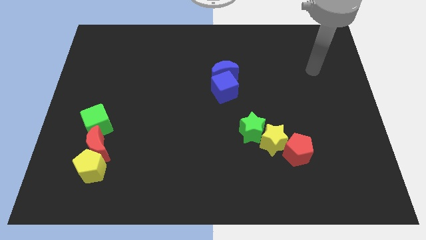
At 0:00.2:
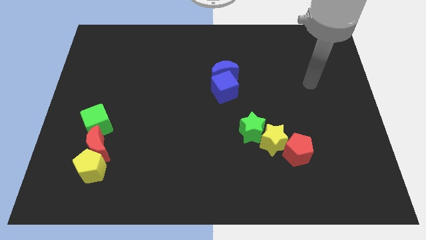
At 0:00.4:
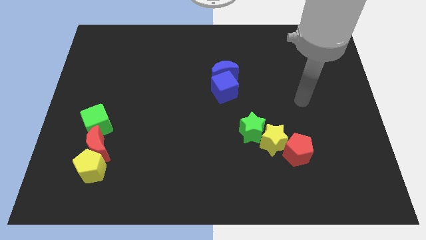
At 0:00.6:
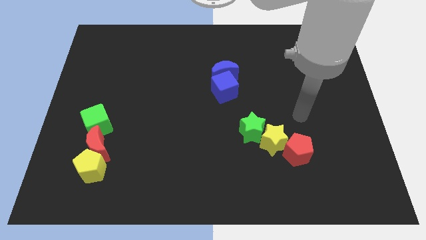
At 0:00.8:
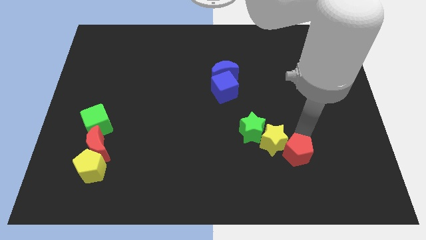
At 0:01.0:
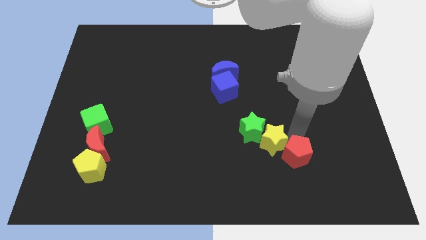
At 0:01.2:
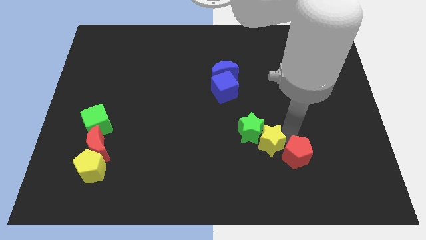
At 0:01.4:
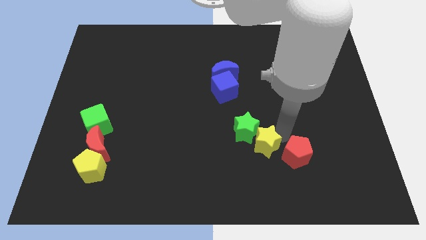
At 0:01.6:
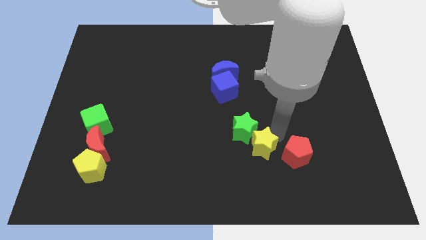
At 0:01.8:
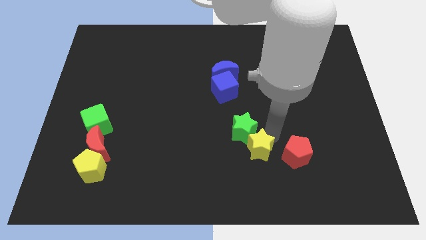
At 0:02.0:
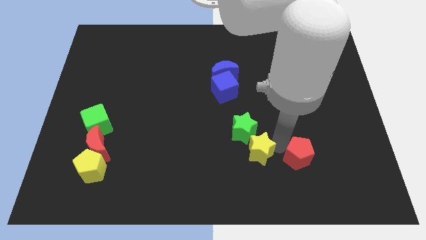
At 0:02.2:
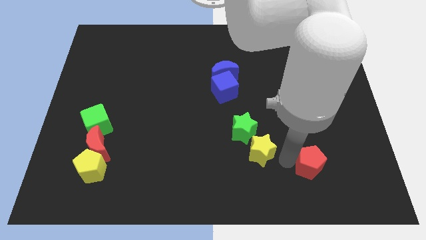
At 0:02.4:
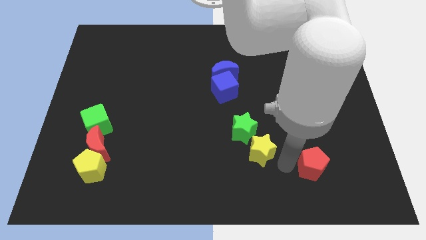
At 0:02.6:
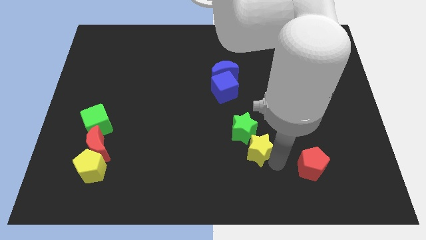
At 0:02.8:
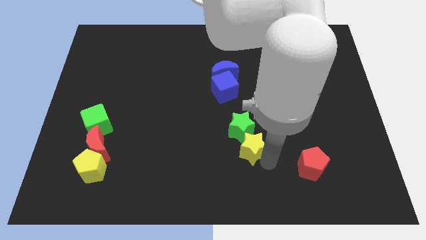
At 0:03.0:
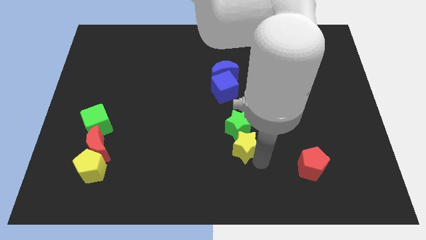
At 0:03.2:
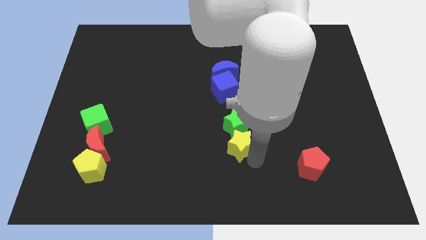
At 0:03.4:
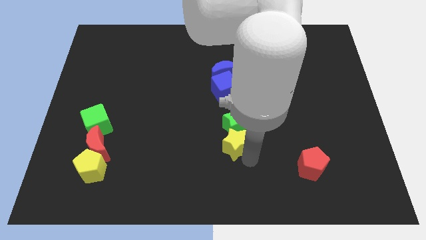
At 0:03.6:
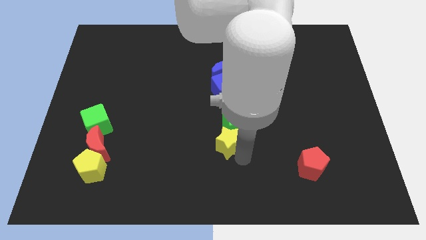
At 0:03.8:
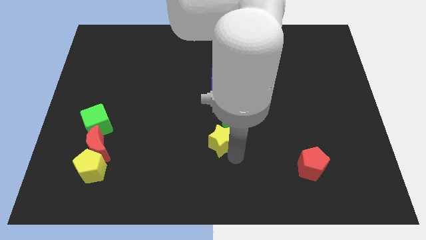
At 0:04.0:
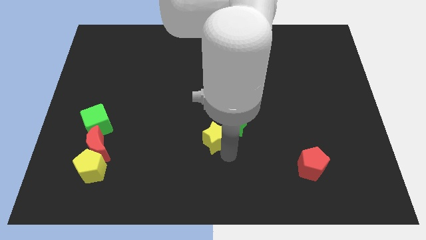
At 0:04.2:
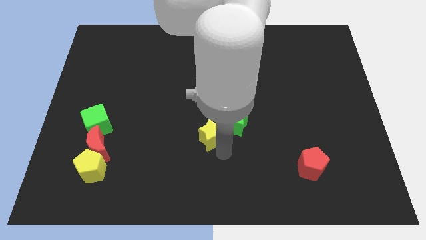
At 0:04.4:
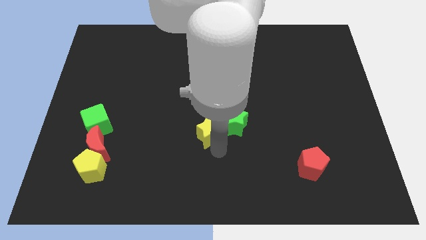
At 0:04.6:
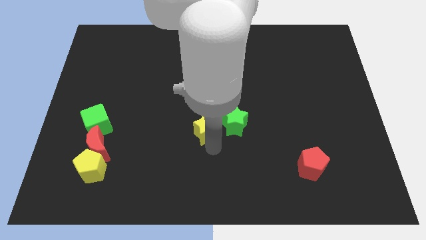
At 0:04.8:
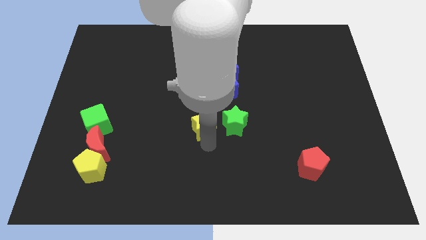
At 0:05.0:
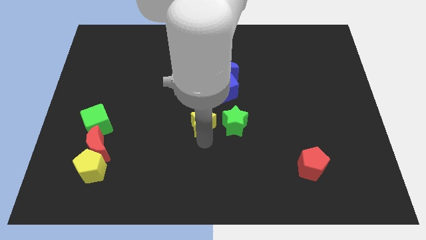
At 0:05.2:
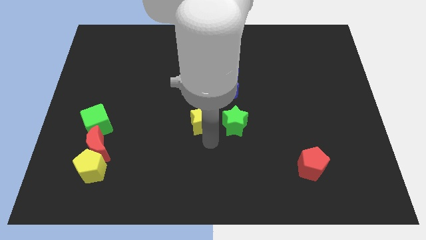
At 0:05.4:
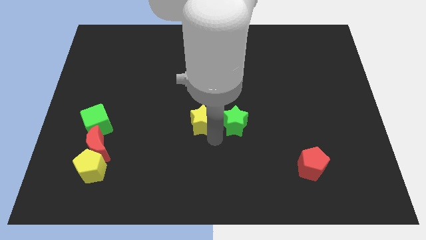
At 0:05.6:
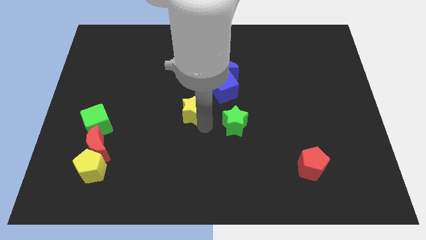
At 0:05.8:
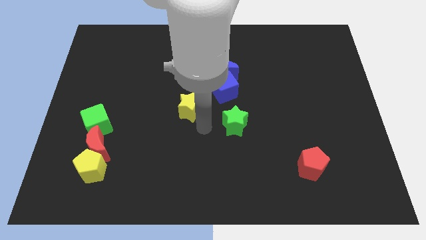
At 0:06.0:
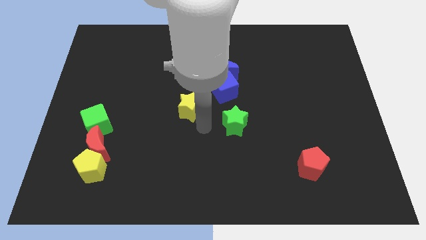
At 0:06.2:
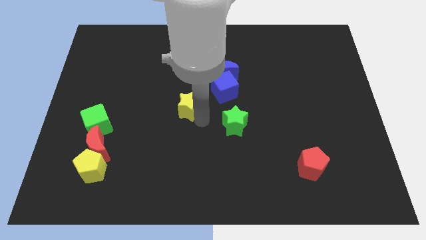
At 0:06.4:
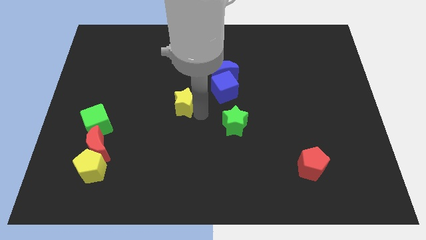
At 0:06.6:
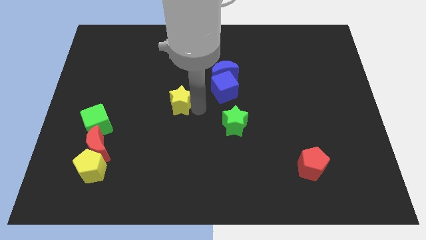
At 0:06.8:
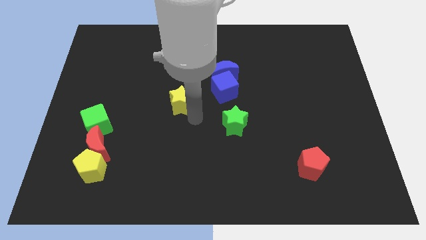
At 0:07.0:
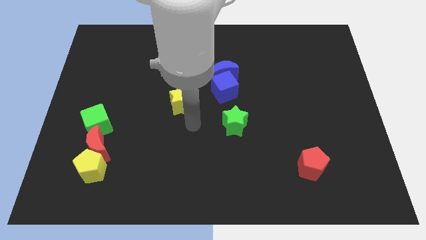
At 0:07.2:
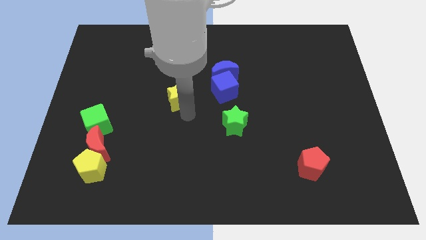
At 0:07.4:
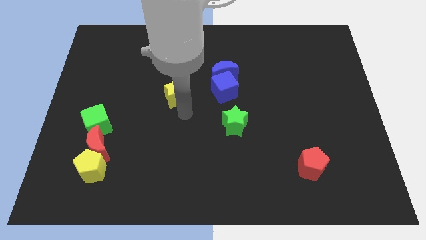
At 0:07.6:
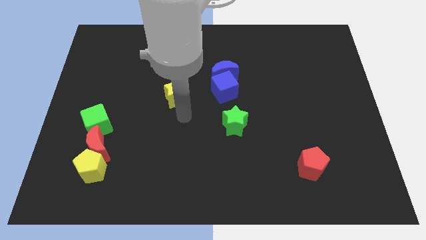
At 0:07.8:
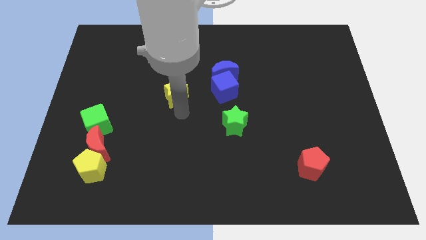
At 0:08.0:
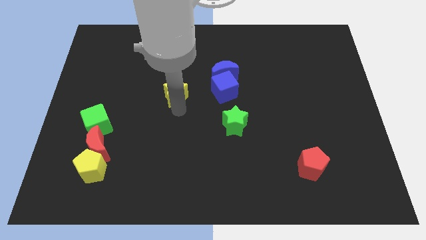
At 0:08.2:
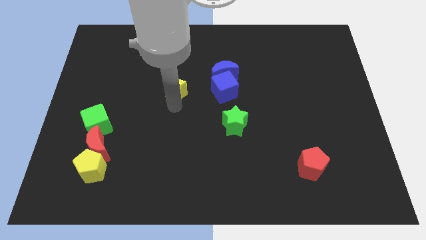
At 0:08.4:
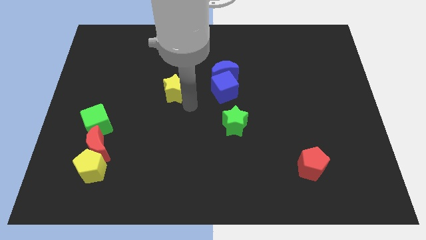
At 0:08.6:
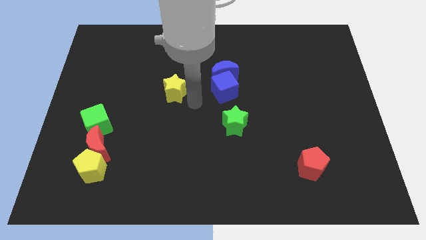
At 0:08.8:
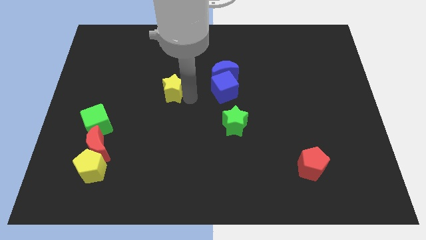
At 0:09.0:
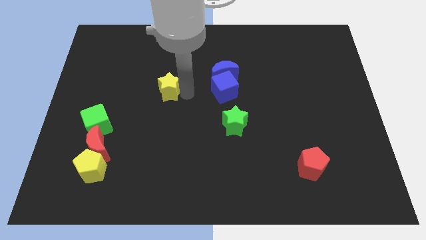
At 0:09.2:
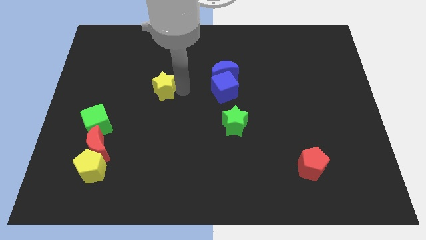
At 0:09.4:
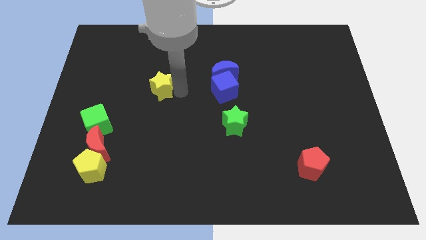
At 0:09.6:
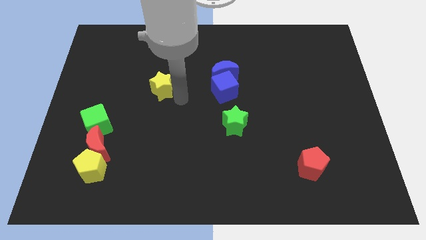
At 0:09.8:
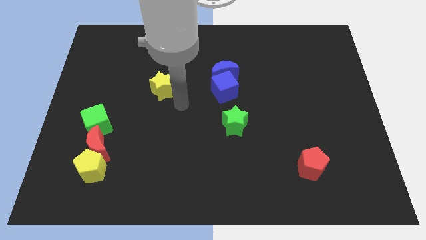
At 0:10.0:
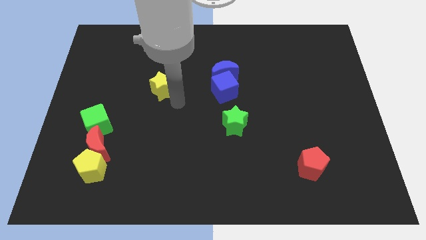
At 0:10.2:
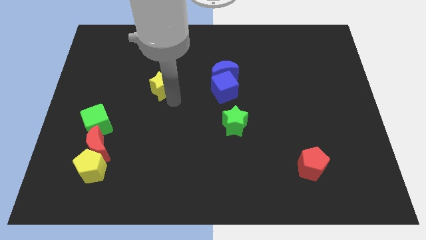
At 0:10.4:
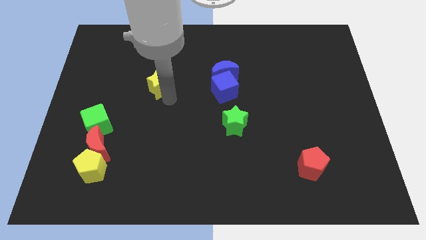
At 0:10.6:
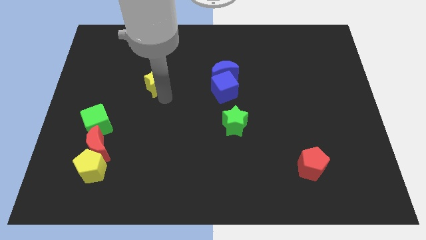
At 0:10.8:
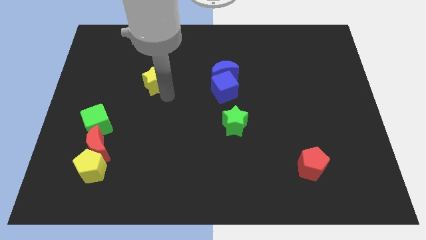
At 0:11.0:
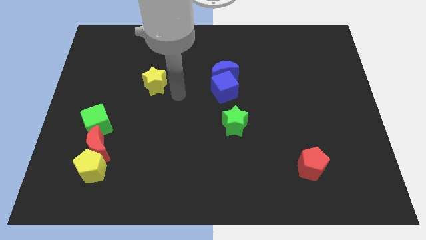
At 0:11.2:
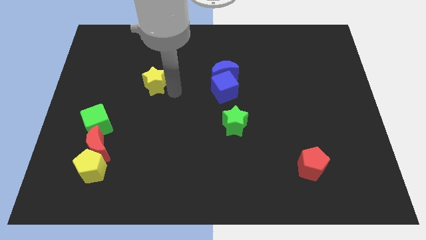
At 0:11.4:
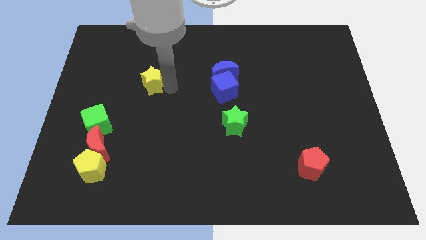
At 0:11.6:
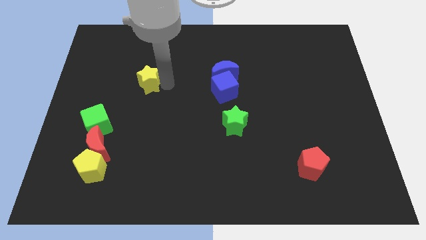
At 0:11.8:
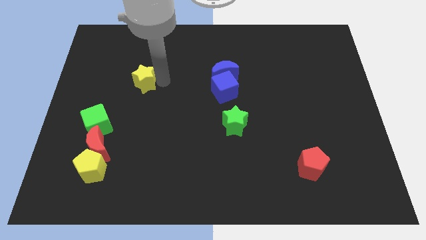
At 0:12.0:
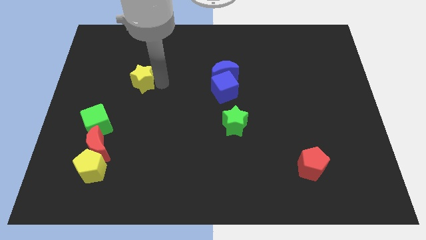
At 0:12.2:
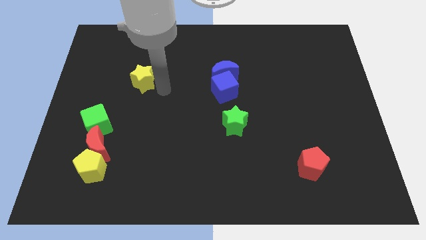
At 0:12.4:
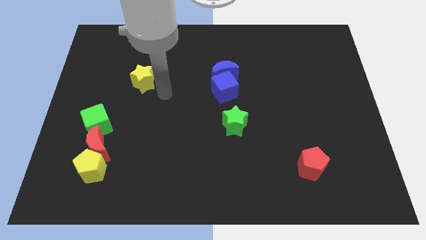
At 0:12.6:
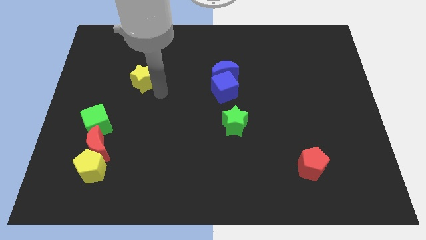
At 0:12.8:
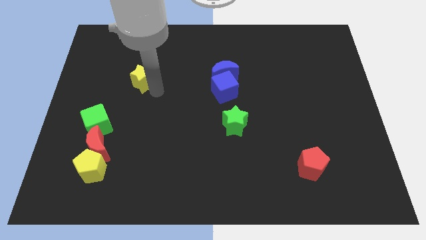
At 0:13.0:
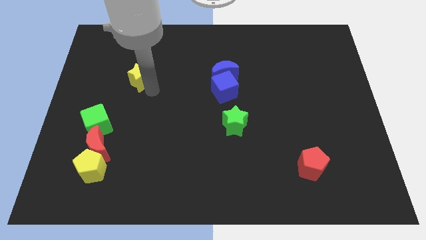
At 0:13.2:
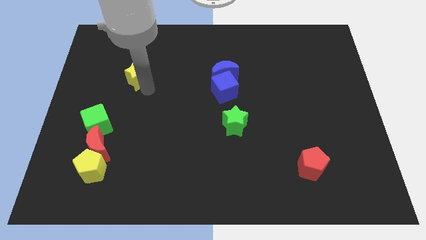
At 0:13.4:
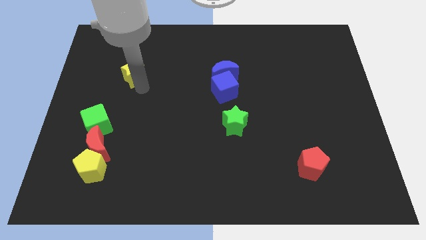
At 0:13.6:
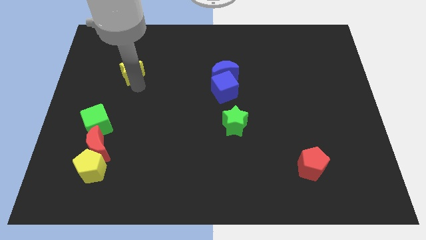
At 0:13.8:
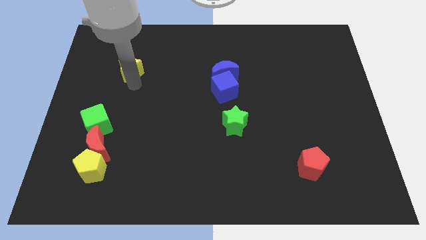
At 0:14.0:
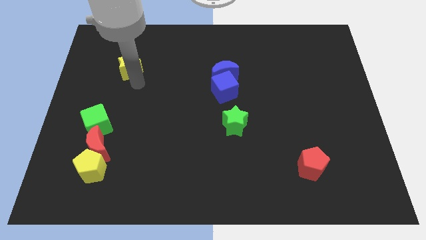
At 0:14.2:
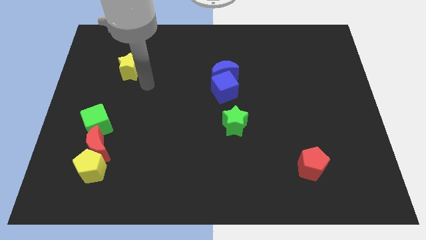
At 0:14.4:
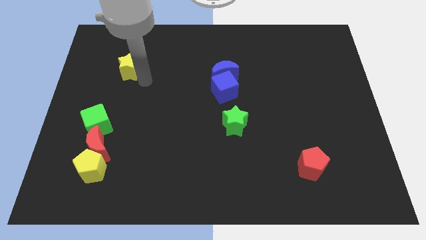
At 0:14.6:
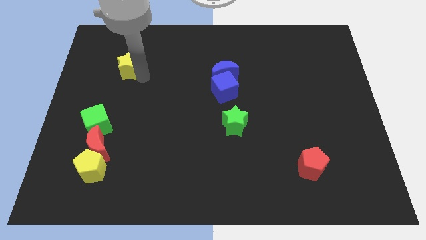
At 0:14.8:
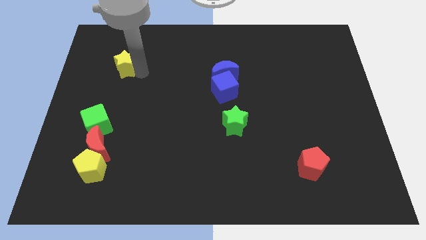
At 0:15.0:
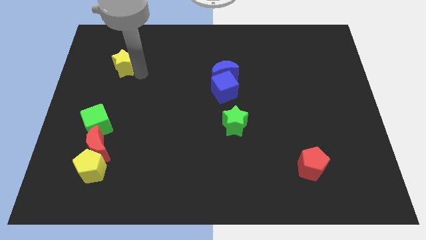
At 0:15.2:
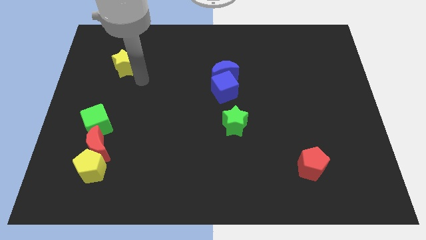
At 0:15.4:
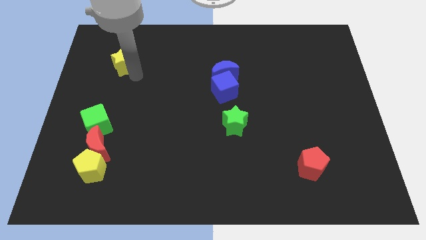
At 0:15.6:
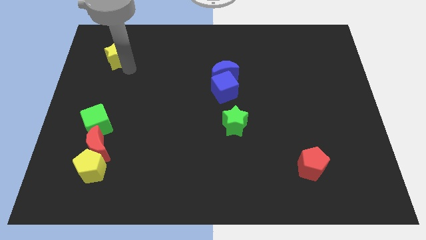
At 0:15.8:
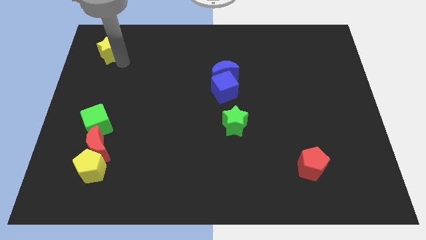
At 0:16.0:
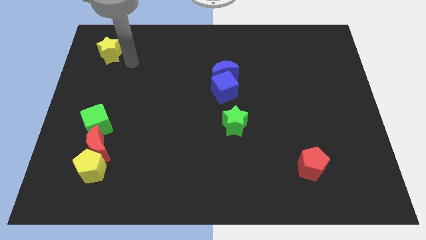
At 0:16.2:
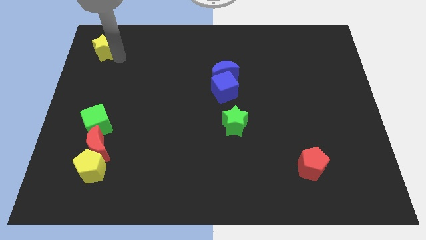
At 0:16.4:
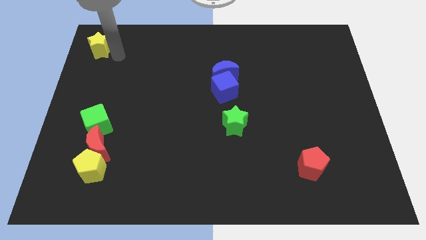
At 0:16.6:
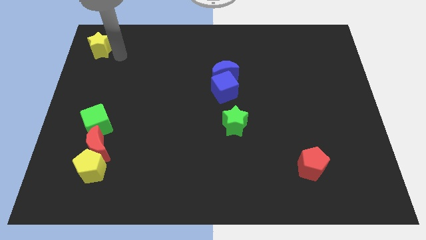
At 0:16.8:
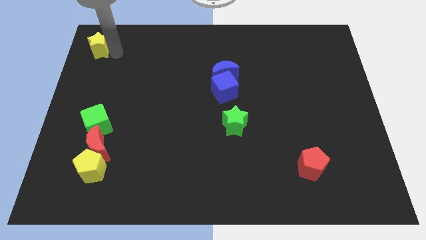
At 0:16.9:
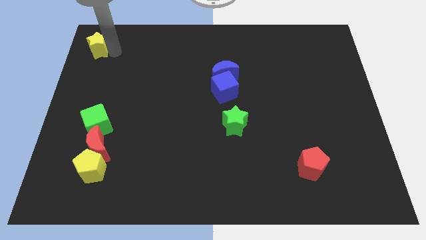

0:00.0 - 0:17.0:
slide the yellow star to the top left of the board
